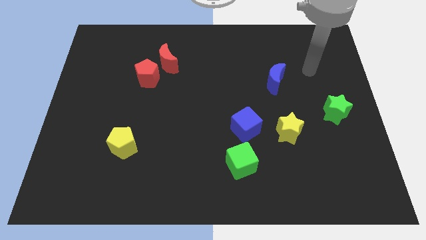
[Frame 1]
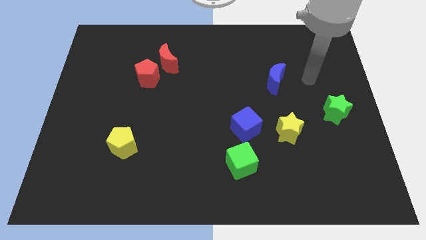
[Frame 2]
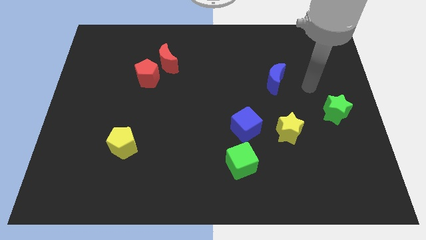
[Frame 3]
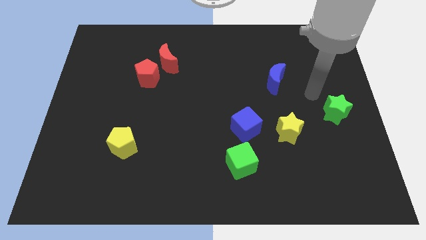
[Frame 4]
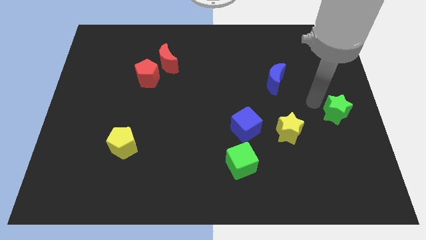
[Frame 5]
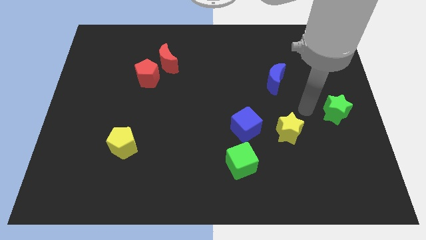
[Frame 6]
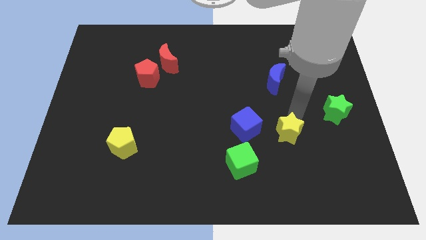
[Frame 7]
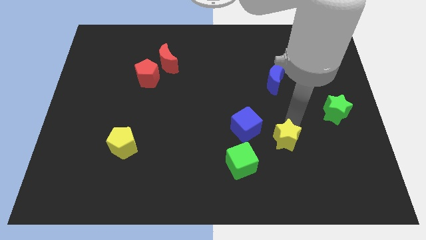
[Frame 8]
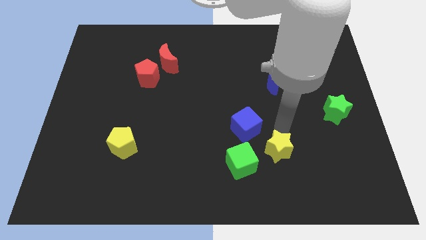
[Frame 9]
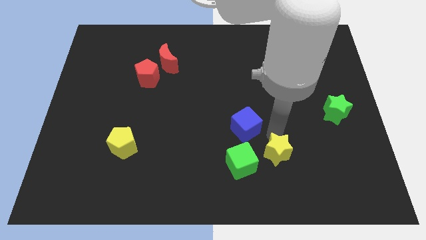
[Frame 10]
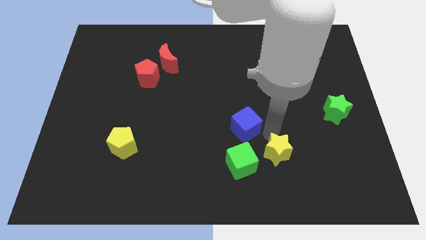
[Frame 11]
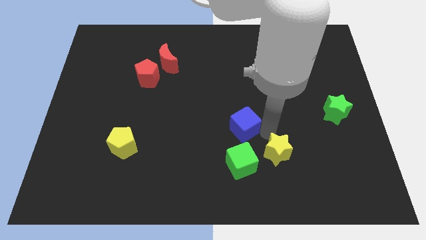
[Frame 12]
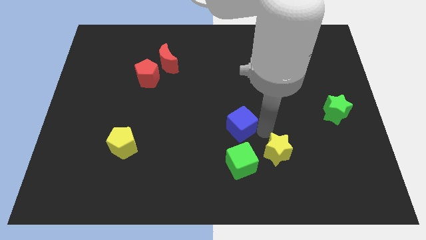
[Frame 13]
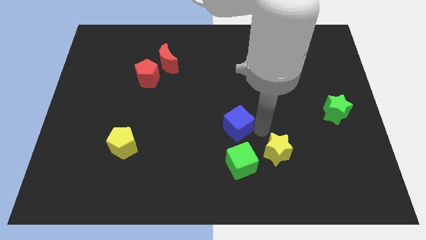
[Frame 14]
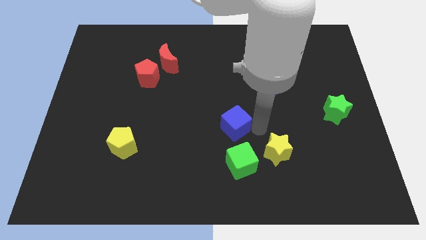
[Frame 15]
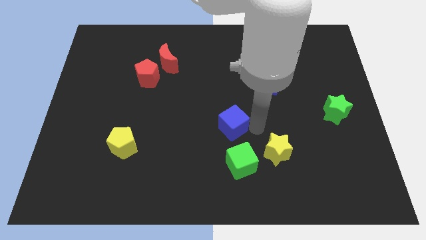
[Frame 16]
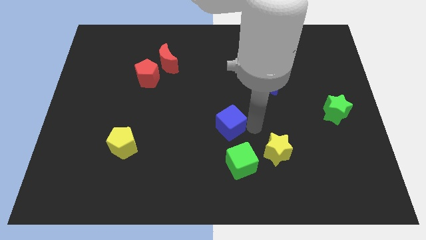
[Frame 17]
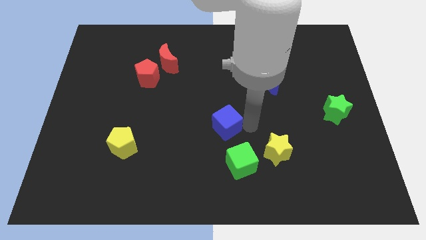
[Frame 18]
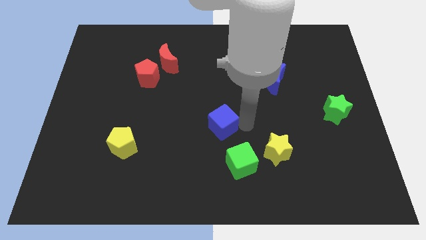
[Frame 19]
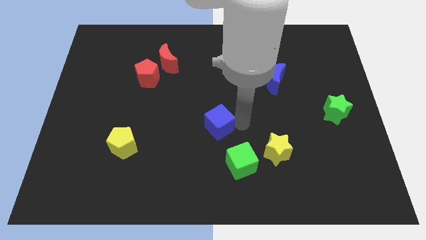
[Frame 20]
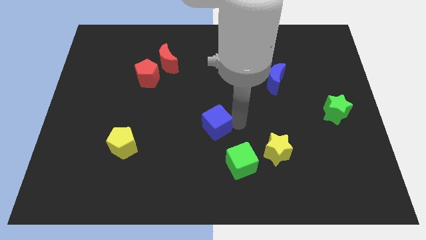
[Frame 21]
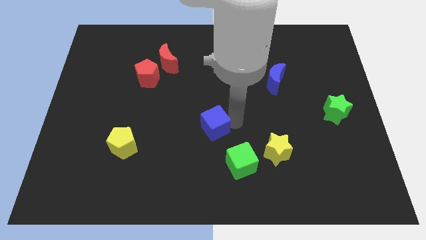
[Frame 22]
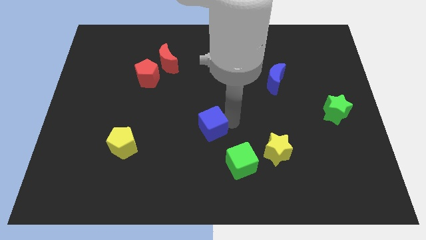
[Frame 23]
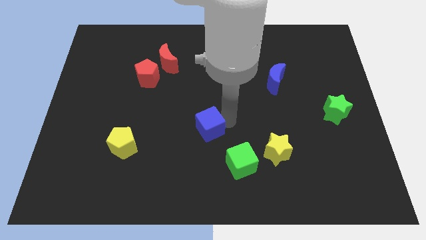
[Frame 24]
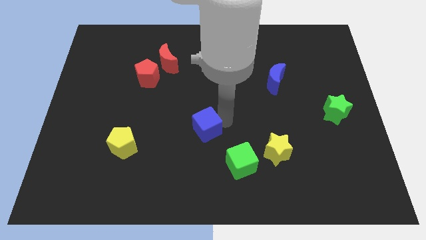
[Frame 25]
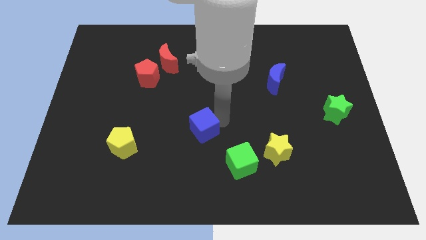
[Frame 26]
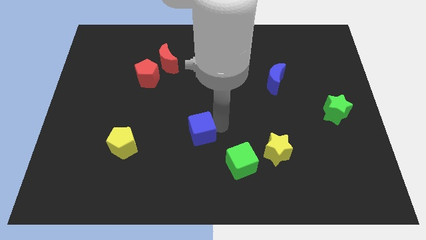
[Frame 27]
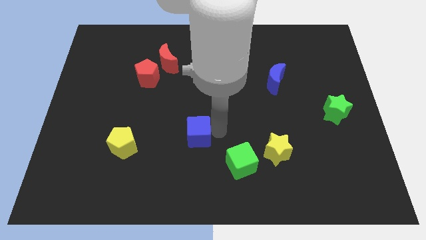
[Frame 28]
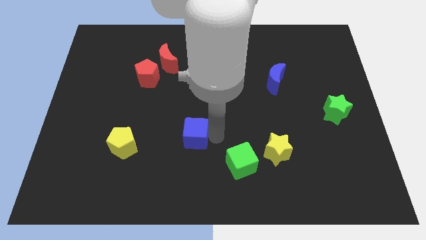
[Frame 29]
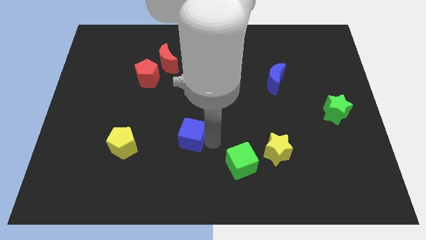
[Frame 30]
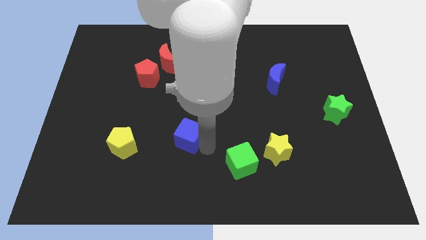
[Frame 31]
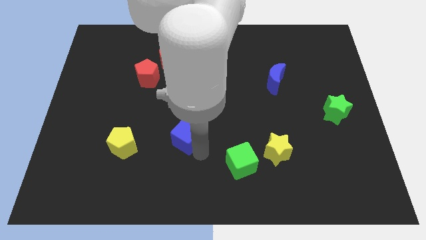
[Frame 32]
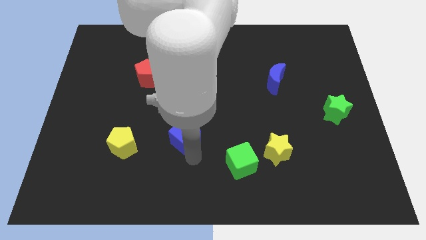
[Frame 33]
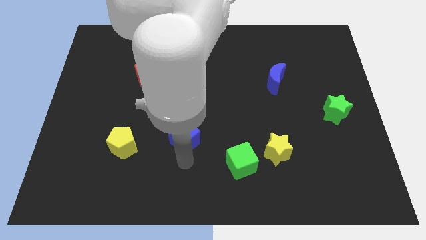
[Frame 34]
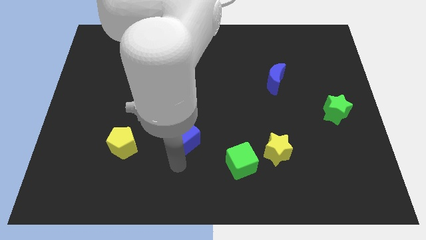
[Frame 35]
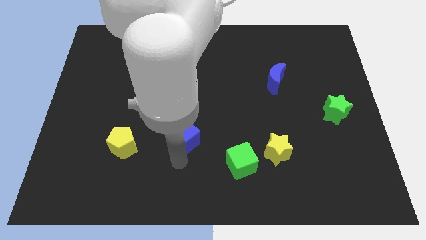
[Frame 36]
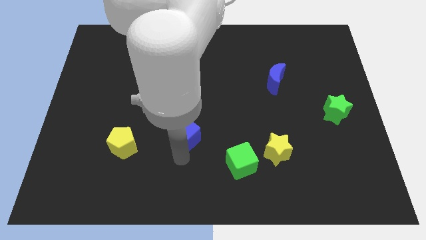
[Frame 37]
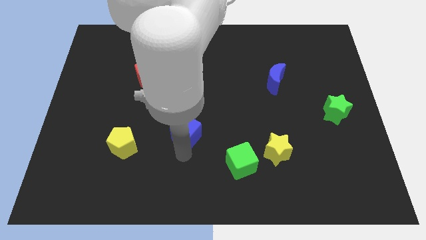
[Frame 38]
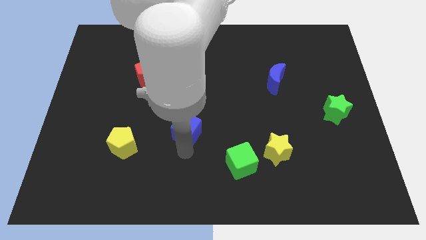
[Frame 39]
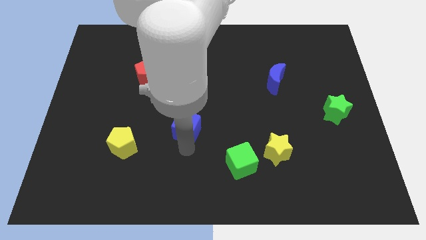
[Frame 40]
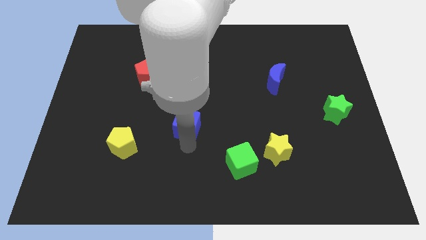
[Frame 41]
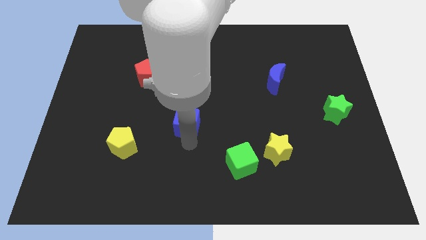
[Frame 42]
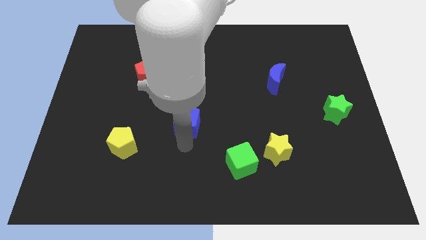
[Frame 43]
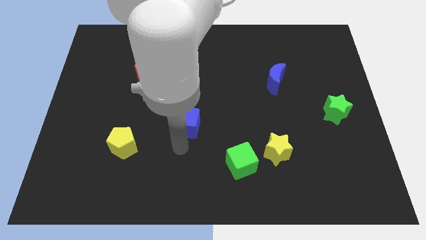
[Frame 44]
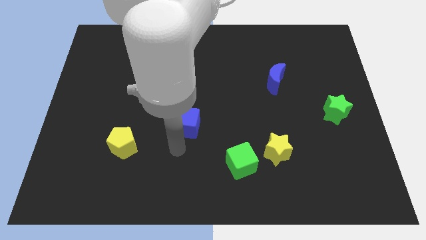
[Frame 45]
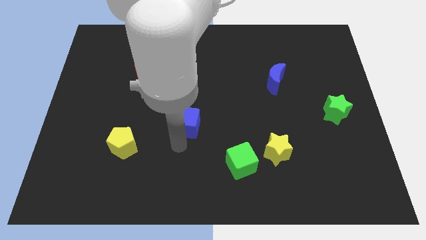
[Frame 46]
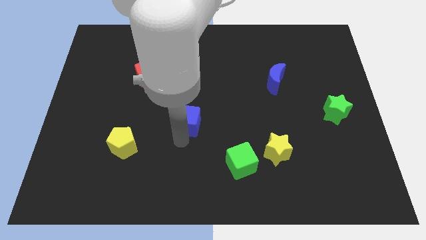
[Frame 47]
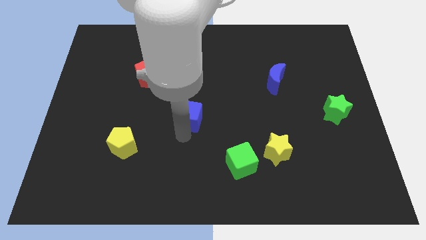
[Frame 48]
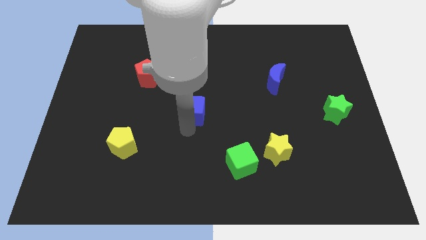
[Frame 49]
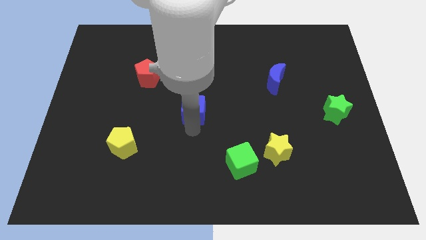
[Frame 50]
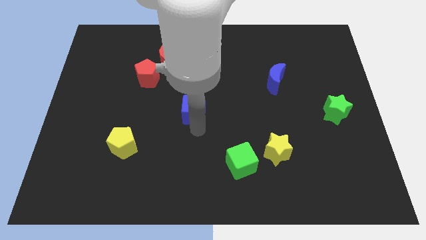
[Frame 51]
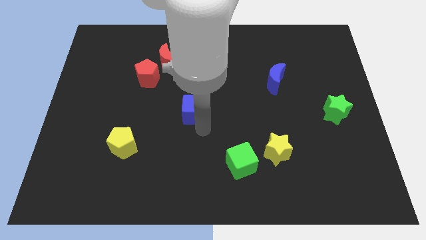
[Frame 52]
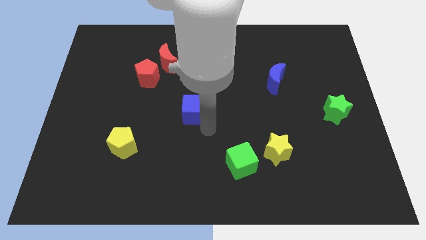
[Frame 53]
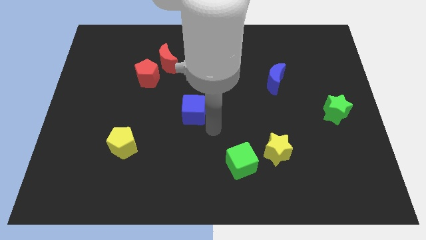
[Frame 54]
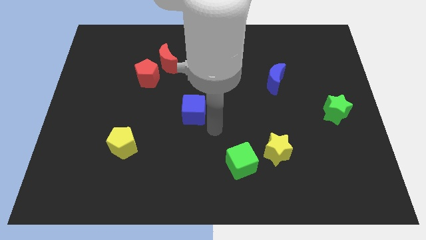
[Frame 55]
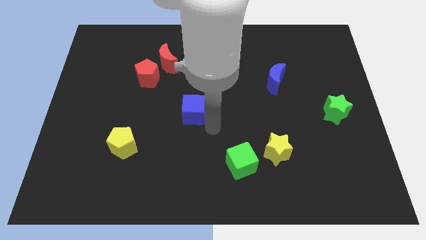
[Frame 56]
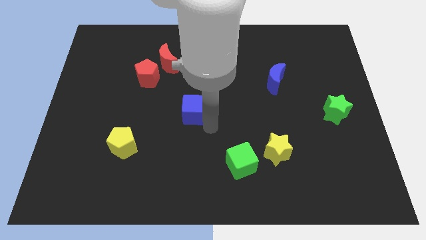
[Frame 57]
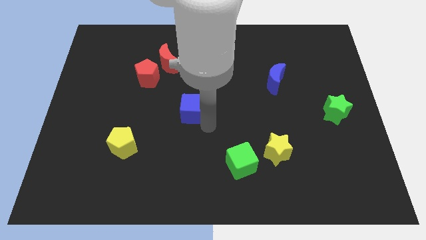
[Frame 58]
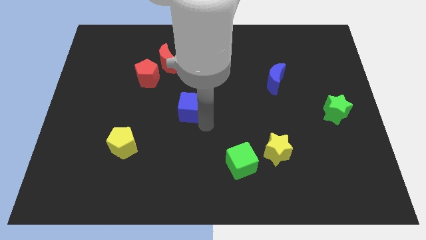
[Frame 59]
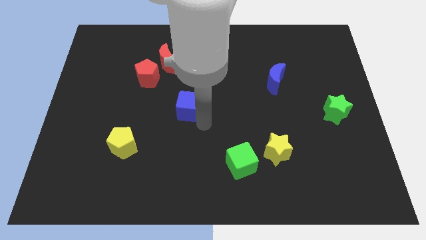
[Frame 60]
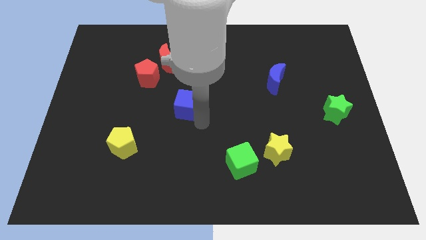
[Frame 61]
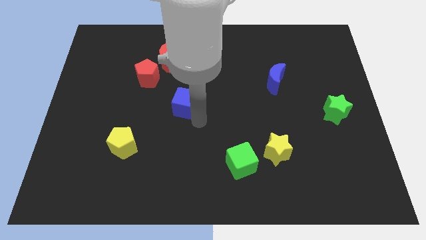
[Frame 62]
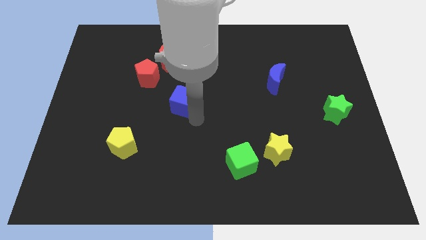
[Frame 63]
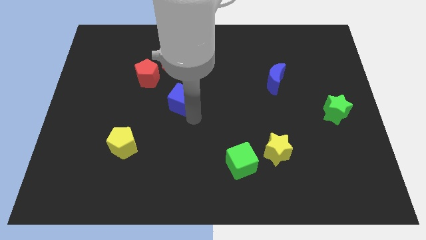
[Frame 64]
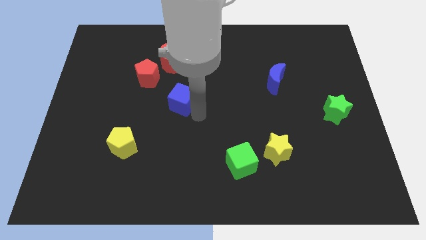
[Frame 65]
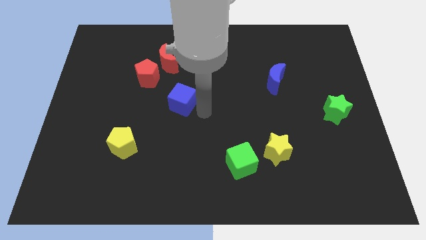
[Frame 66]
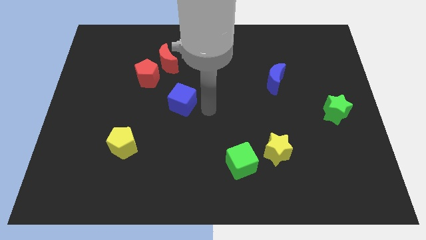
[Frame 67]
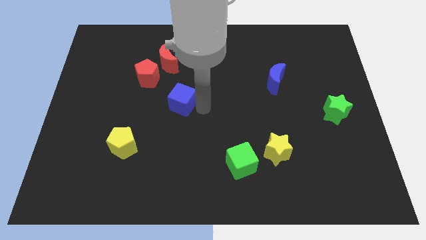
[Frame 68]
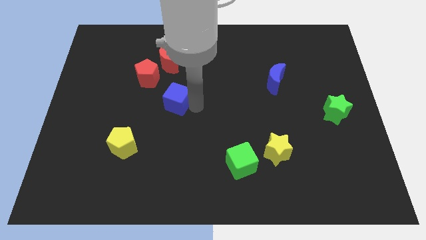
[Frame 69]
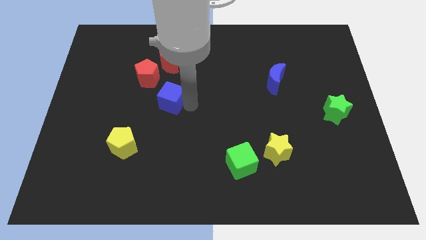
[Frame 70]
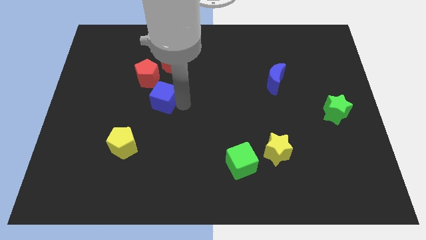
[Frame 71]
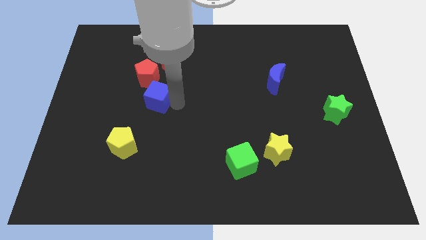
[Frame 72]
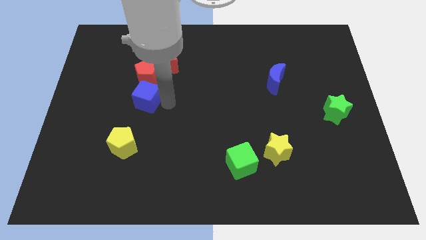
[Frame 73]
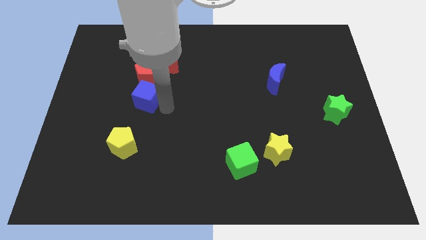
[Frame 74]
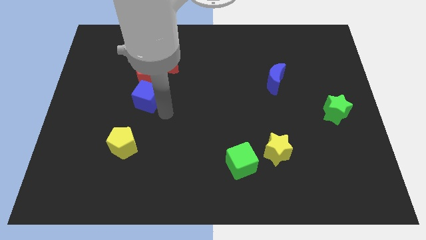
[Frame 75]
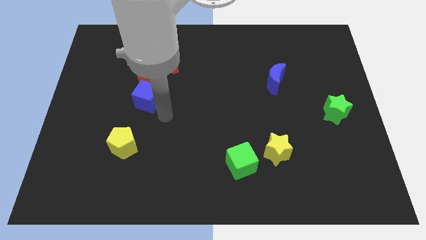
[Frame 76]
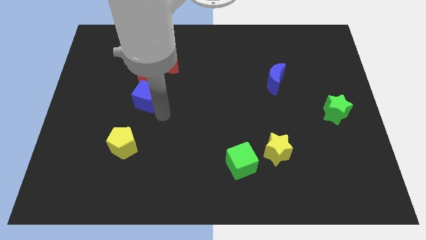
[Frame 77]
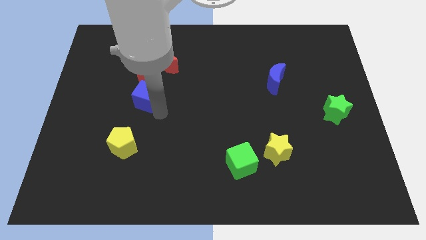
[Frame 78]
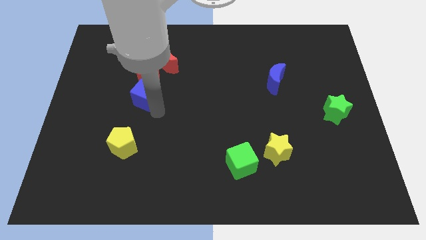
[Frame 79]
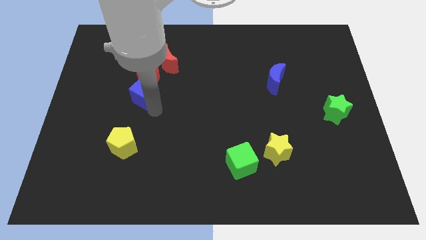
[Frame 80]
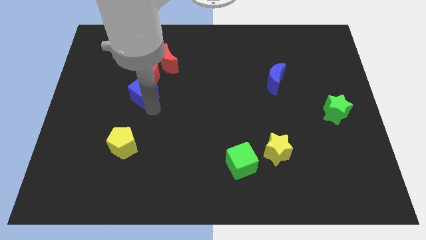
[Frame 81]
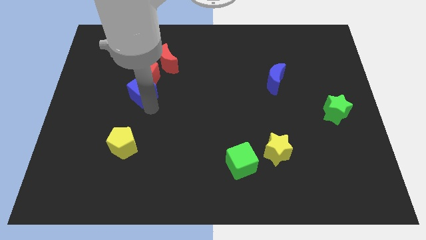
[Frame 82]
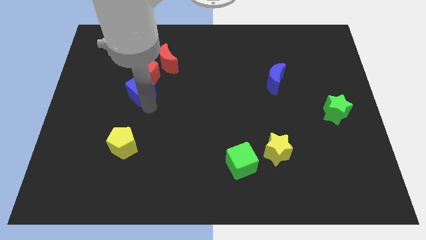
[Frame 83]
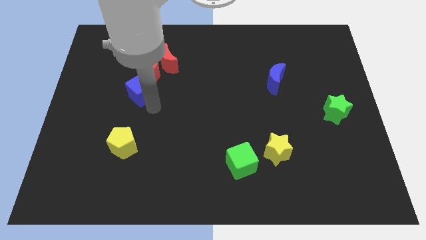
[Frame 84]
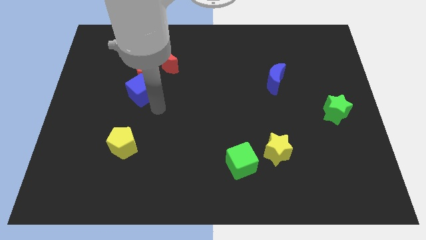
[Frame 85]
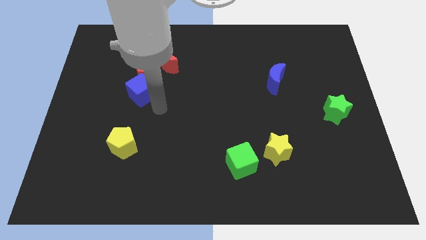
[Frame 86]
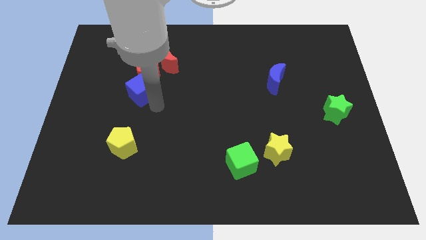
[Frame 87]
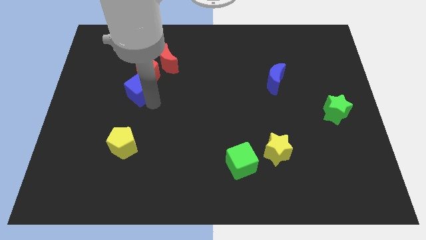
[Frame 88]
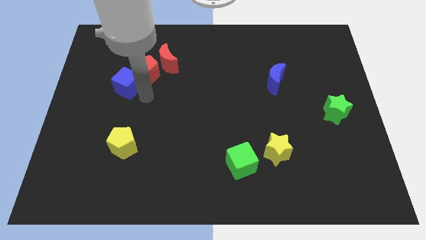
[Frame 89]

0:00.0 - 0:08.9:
push the blue cube to the left side of the red pentagon
